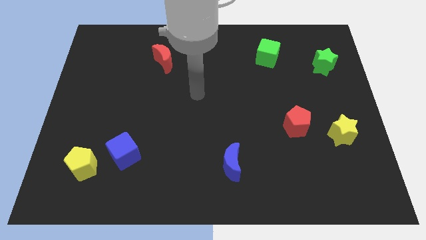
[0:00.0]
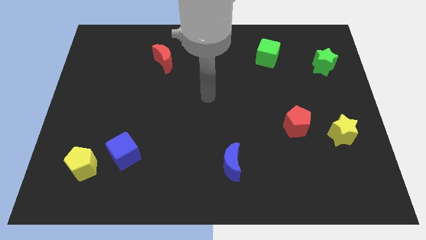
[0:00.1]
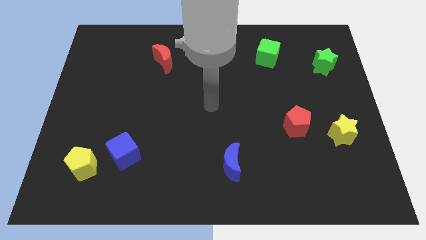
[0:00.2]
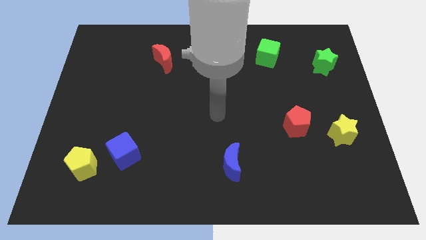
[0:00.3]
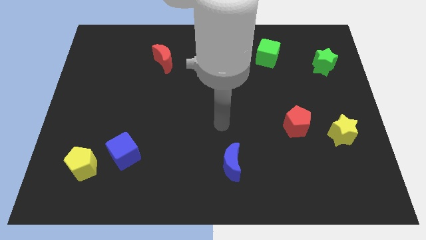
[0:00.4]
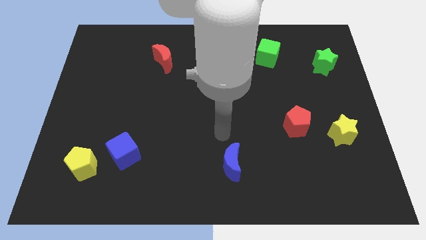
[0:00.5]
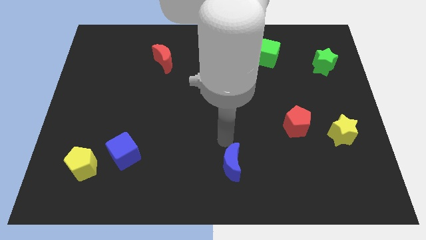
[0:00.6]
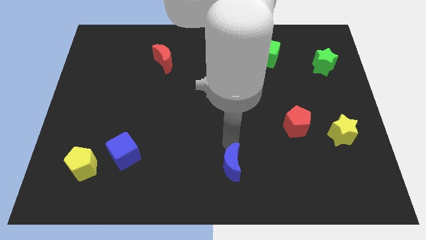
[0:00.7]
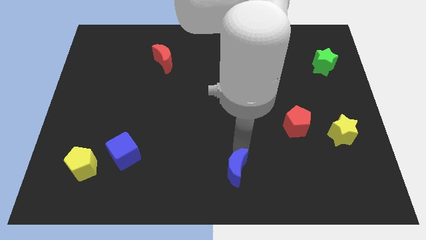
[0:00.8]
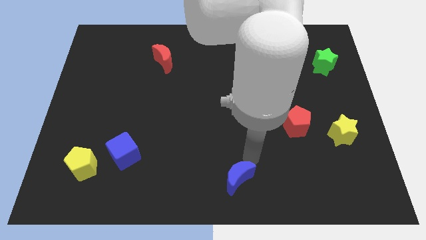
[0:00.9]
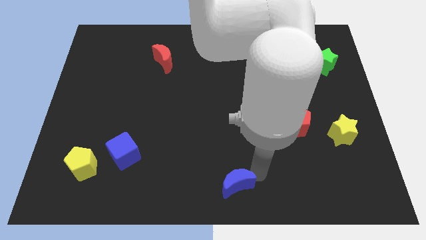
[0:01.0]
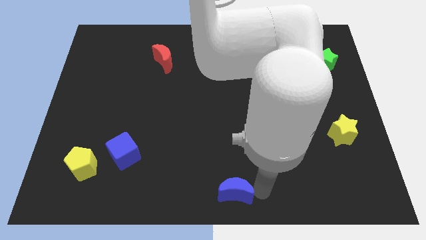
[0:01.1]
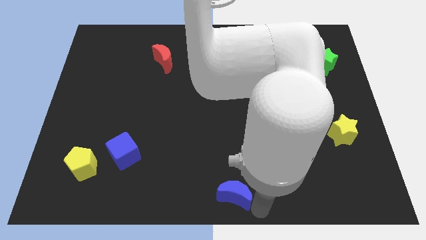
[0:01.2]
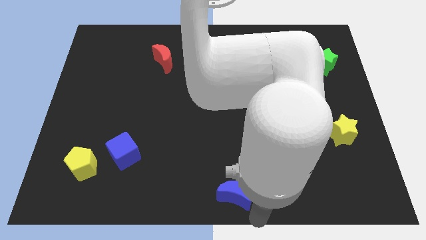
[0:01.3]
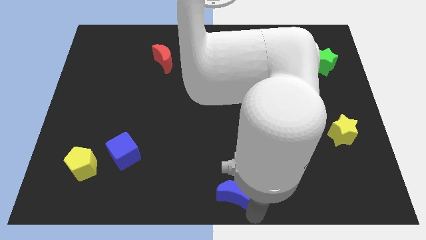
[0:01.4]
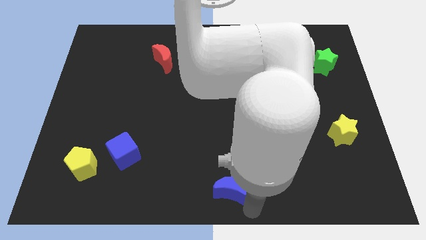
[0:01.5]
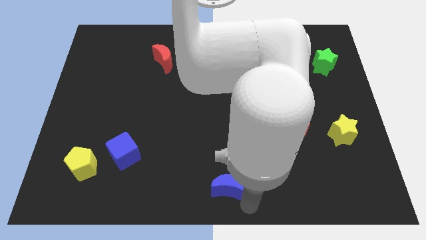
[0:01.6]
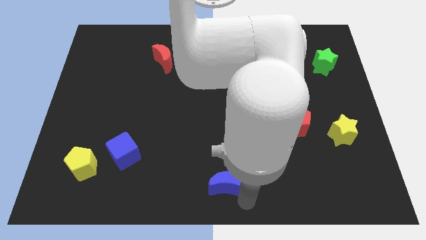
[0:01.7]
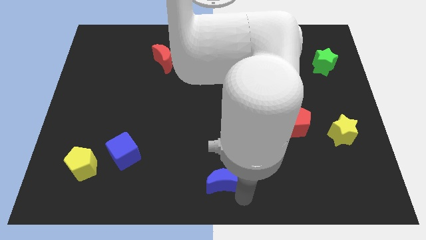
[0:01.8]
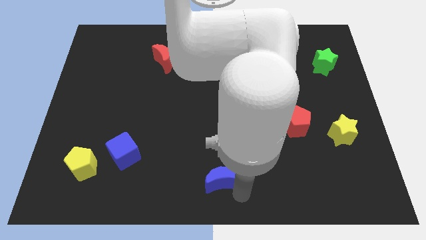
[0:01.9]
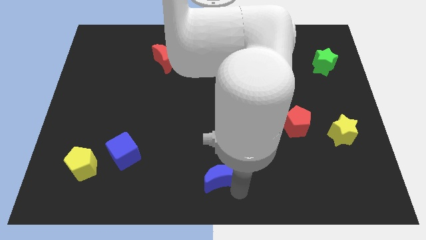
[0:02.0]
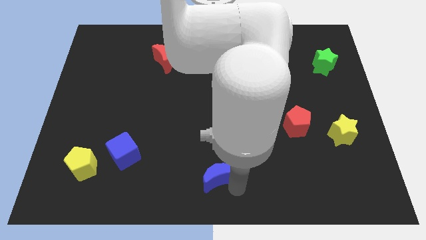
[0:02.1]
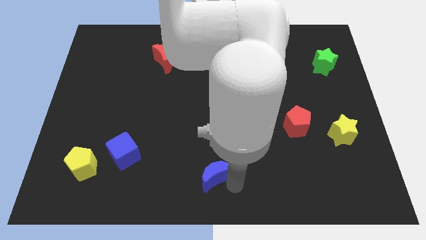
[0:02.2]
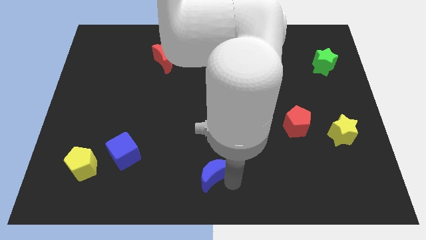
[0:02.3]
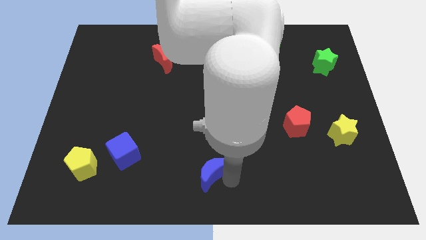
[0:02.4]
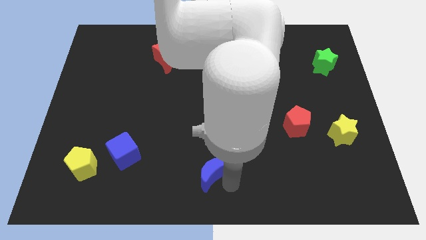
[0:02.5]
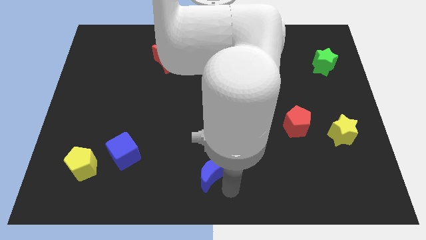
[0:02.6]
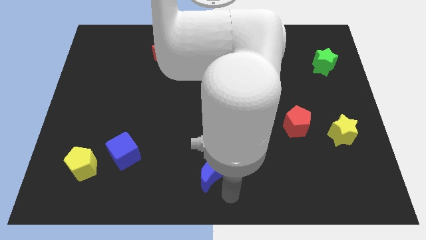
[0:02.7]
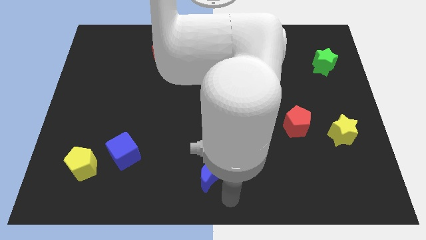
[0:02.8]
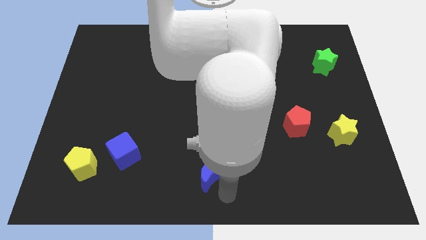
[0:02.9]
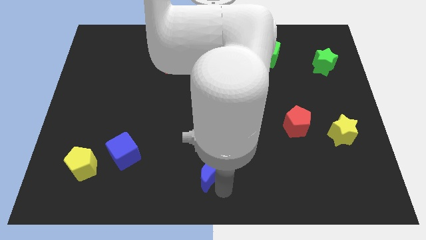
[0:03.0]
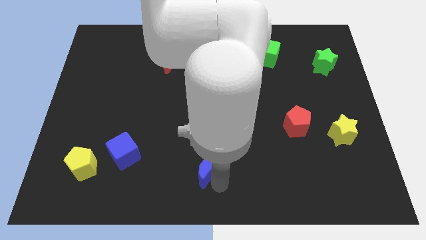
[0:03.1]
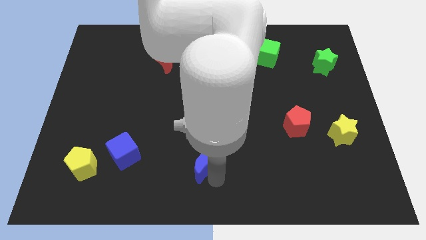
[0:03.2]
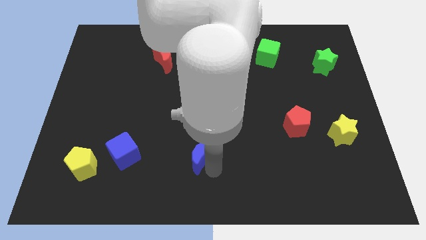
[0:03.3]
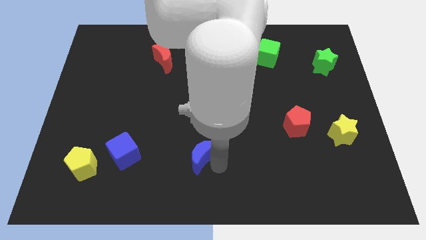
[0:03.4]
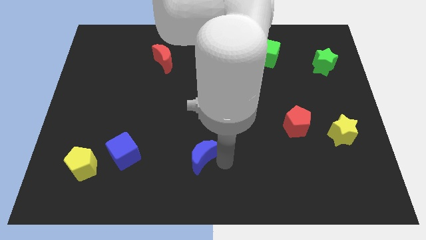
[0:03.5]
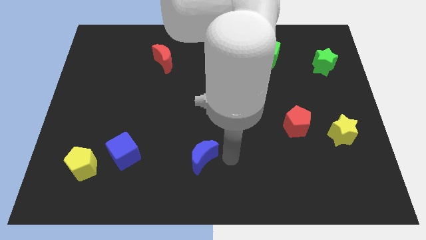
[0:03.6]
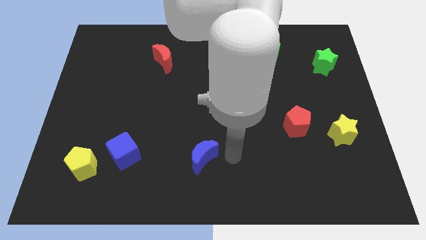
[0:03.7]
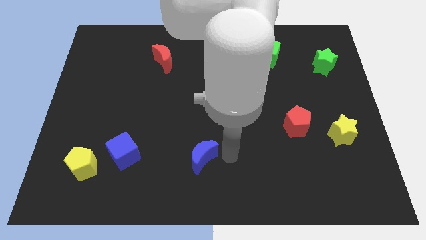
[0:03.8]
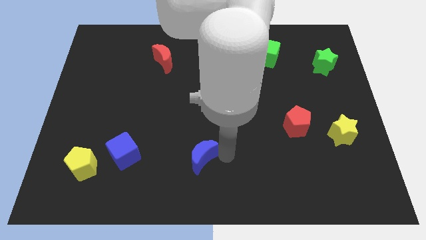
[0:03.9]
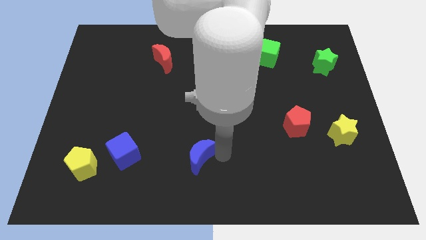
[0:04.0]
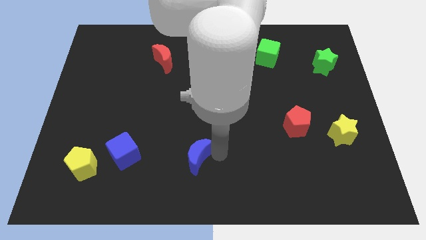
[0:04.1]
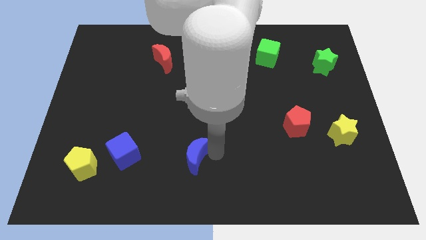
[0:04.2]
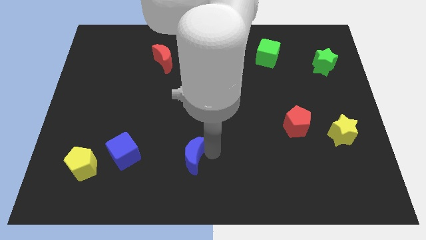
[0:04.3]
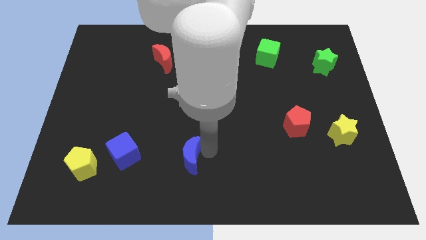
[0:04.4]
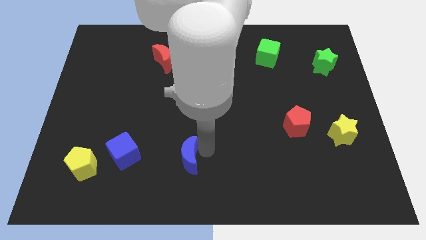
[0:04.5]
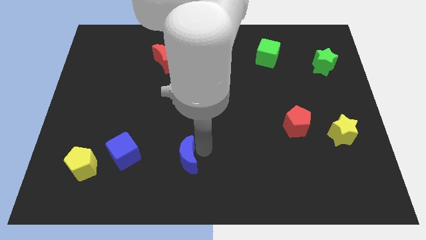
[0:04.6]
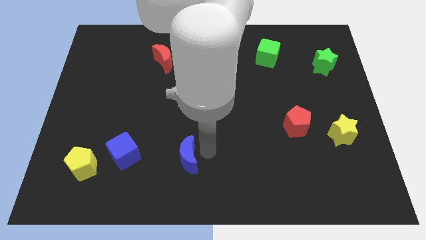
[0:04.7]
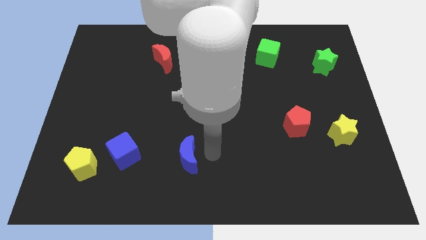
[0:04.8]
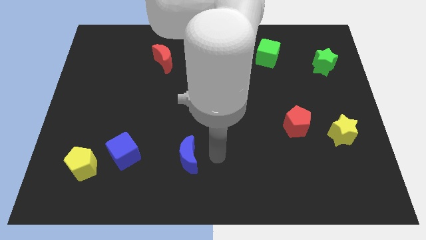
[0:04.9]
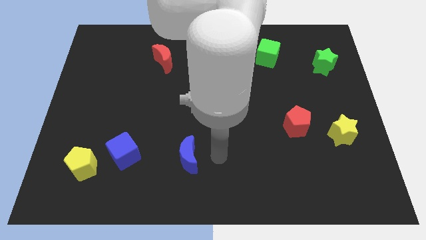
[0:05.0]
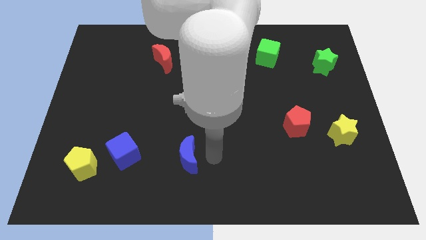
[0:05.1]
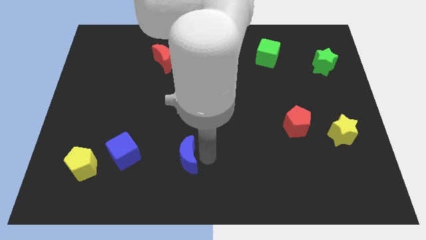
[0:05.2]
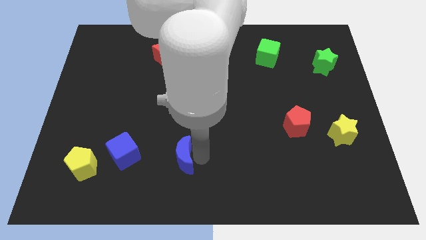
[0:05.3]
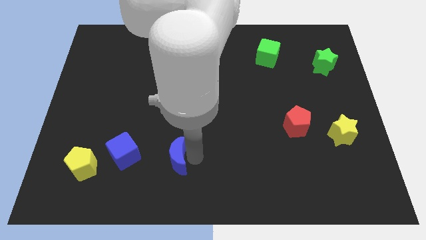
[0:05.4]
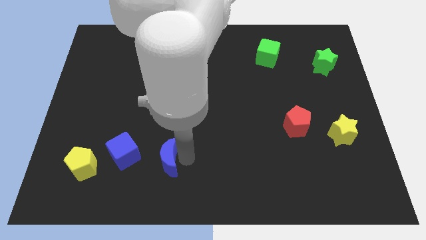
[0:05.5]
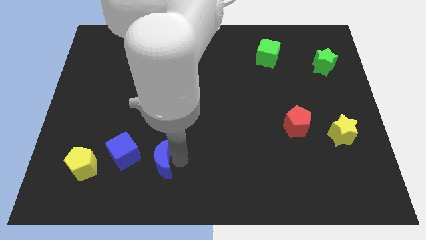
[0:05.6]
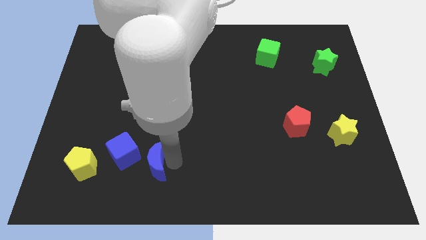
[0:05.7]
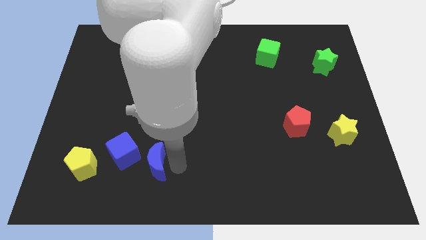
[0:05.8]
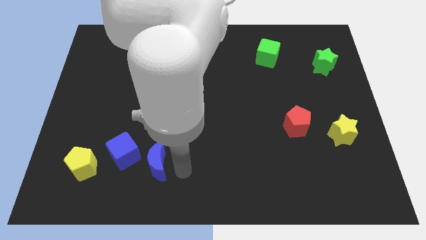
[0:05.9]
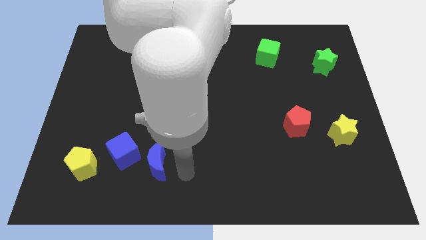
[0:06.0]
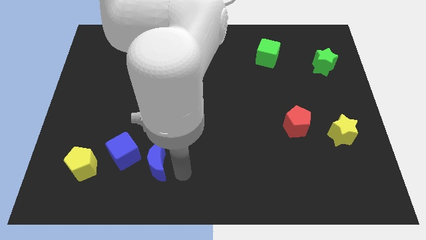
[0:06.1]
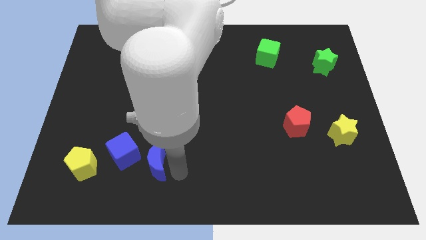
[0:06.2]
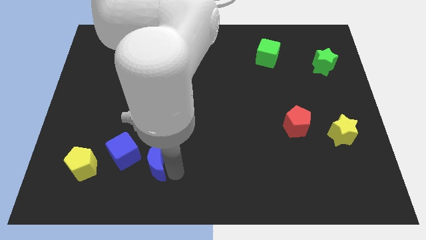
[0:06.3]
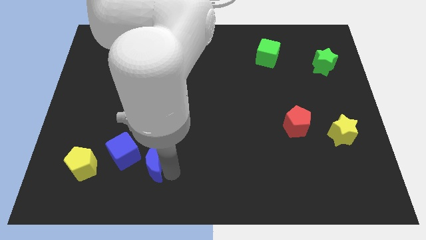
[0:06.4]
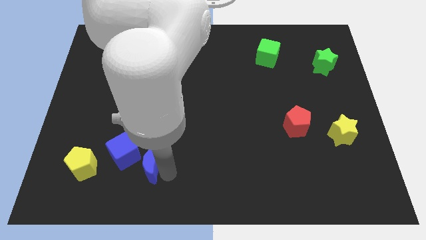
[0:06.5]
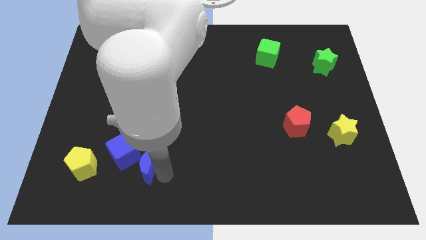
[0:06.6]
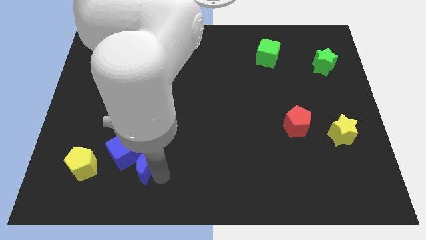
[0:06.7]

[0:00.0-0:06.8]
move the blue moon to the blue cube

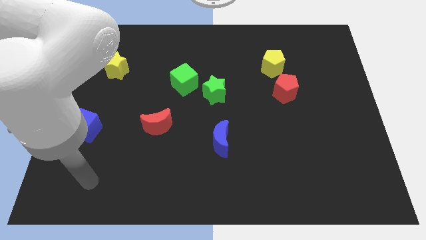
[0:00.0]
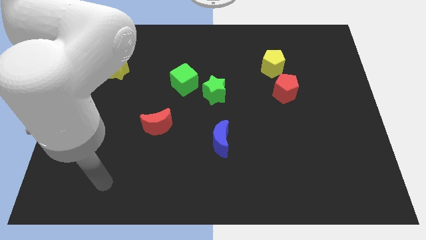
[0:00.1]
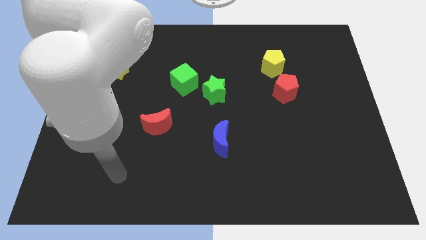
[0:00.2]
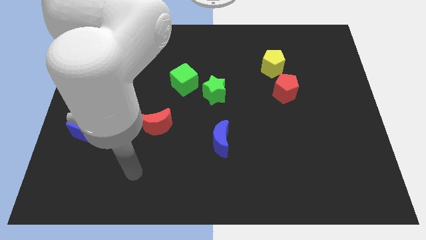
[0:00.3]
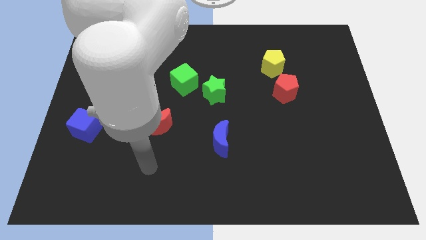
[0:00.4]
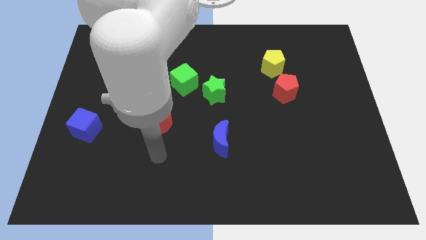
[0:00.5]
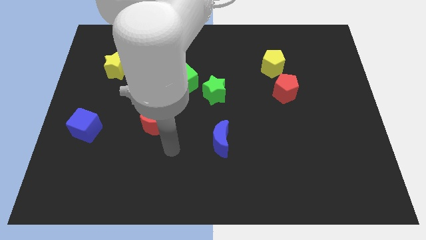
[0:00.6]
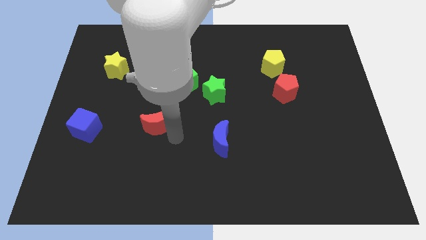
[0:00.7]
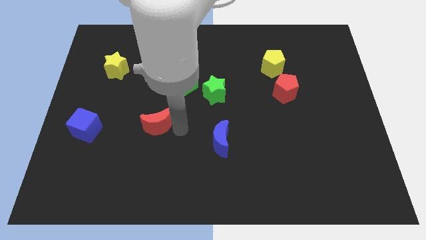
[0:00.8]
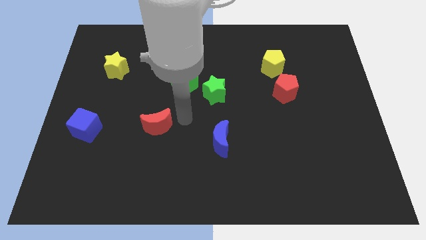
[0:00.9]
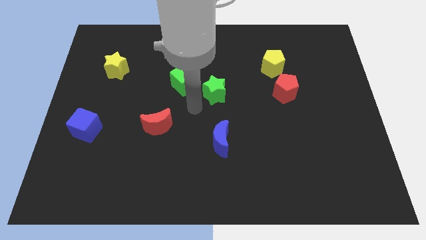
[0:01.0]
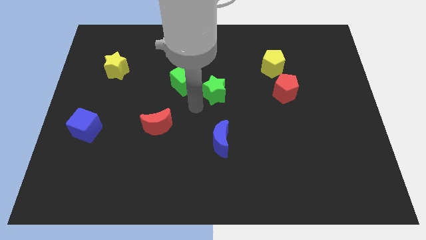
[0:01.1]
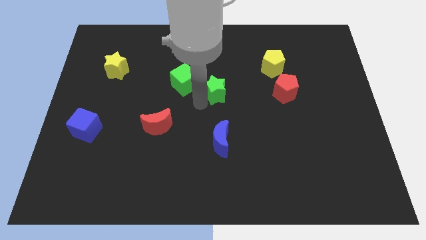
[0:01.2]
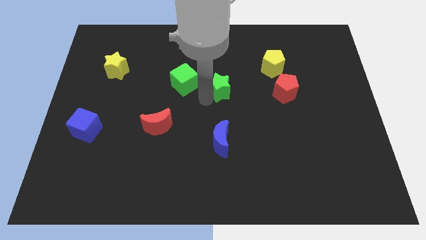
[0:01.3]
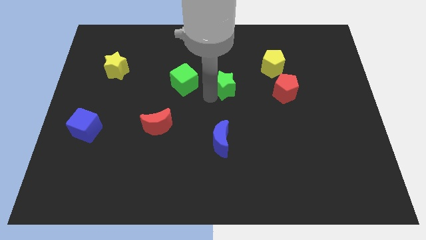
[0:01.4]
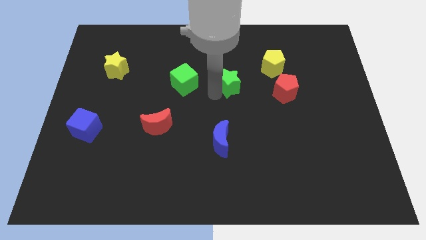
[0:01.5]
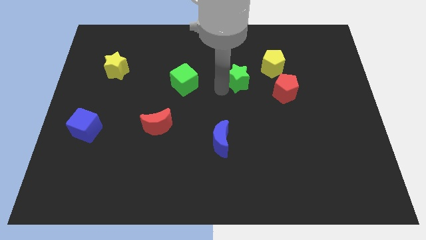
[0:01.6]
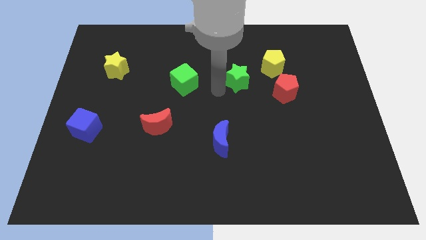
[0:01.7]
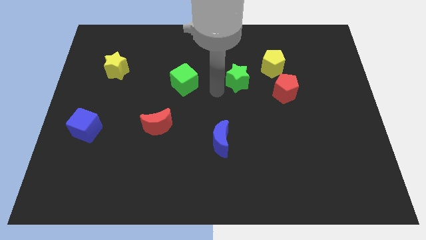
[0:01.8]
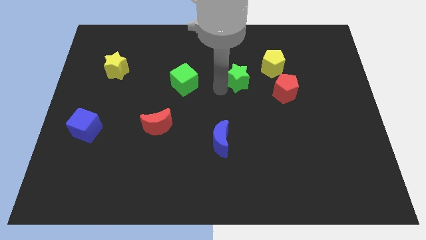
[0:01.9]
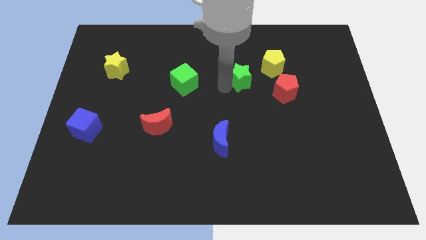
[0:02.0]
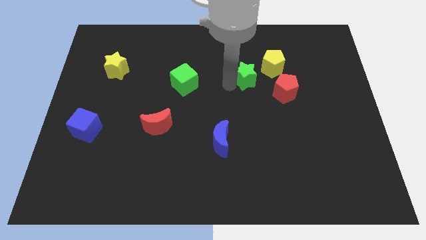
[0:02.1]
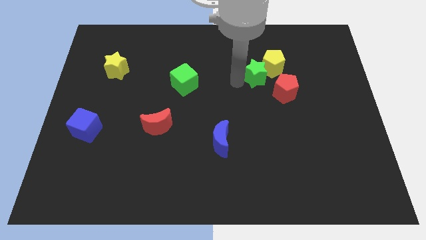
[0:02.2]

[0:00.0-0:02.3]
push the green star next to the yellow pentagon
